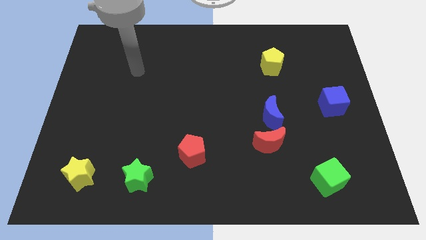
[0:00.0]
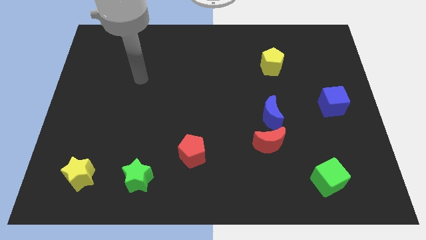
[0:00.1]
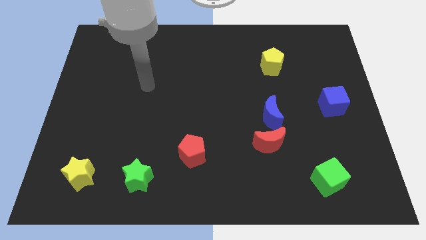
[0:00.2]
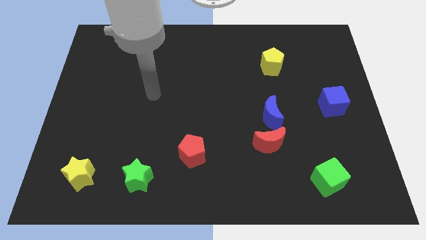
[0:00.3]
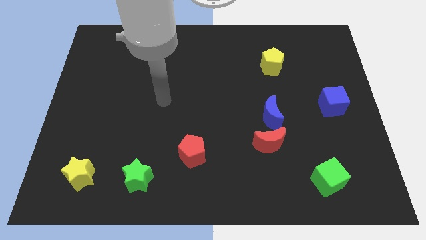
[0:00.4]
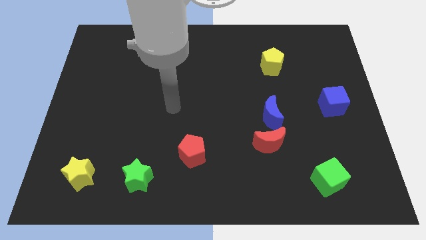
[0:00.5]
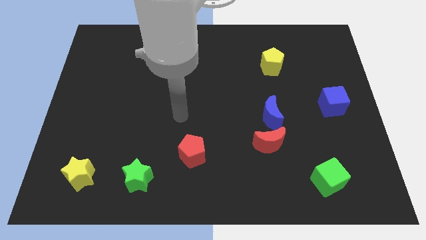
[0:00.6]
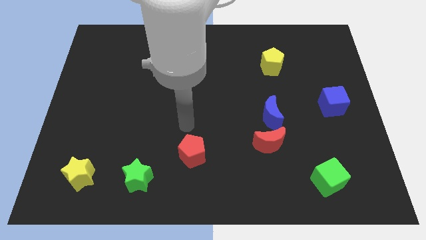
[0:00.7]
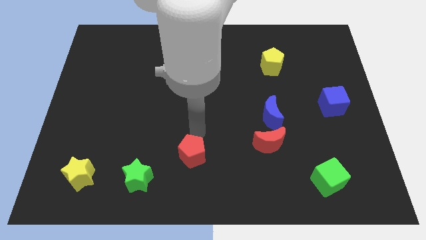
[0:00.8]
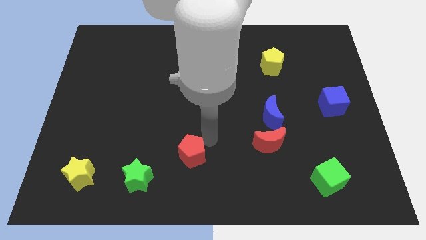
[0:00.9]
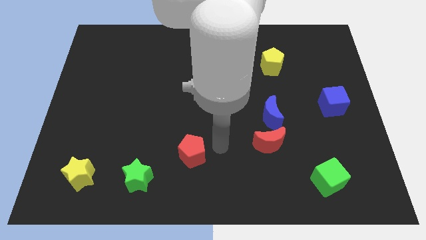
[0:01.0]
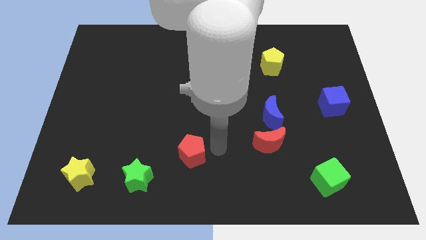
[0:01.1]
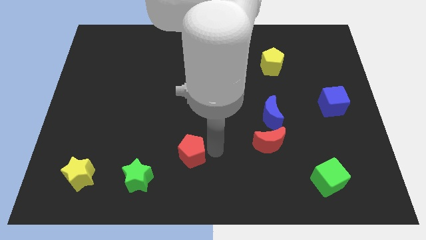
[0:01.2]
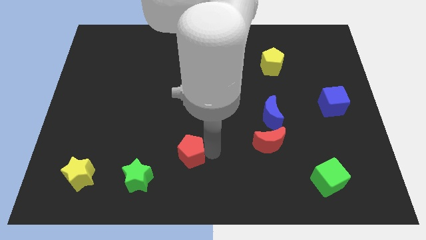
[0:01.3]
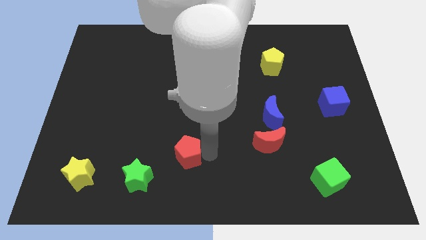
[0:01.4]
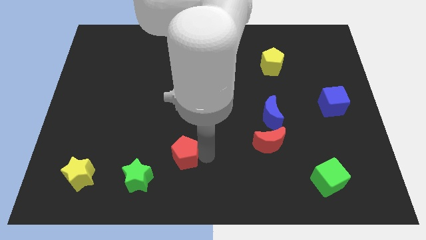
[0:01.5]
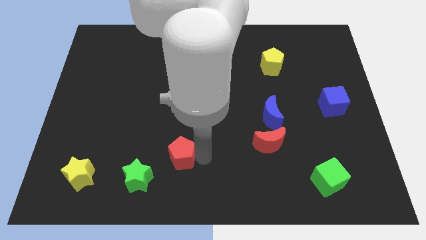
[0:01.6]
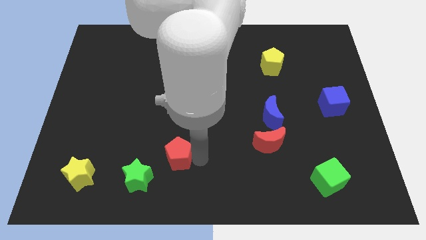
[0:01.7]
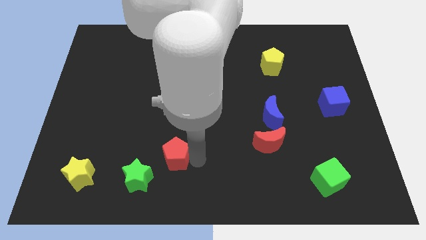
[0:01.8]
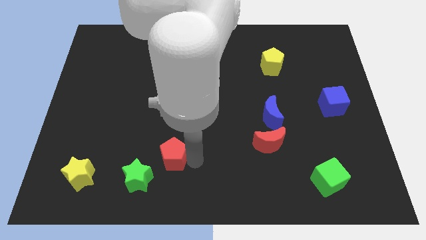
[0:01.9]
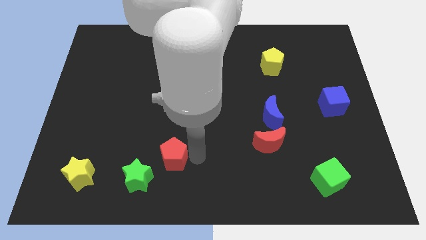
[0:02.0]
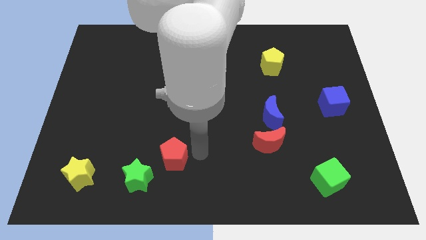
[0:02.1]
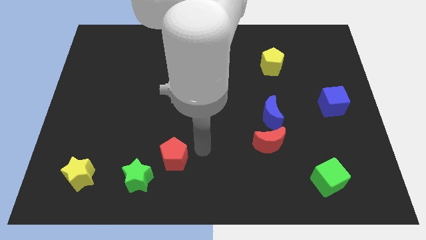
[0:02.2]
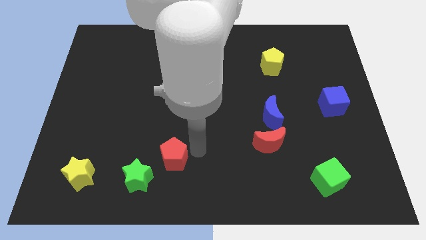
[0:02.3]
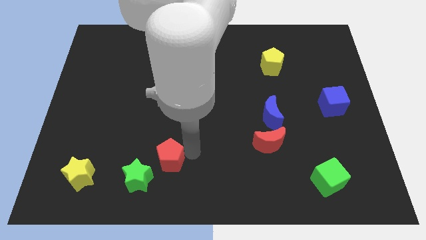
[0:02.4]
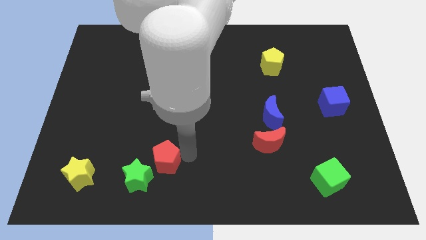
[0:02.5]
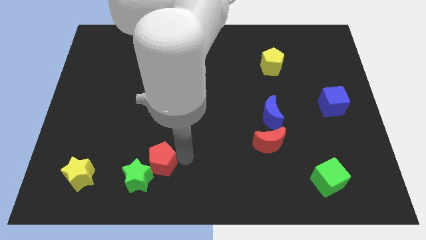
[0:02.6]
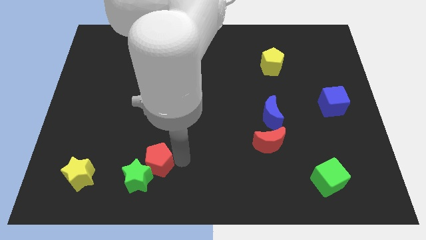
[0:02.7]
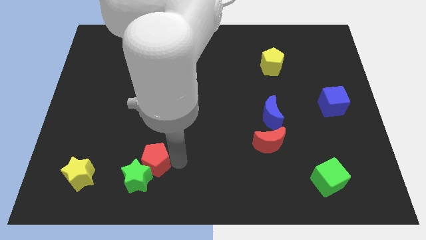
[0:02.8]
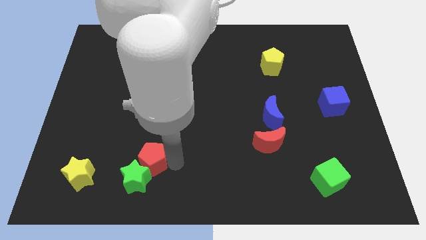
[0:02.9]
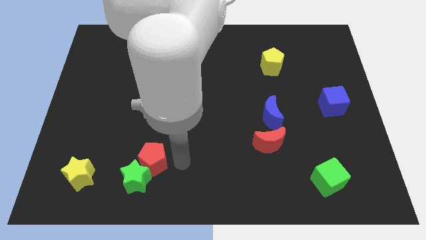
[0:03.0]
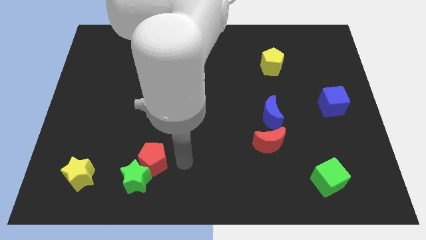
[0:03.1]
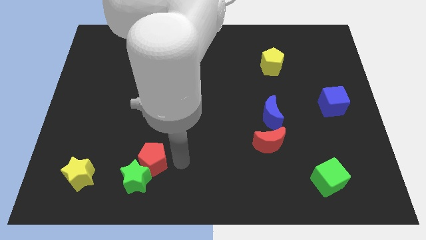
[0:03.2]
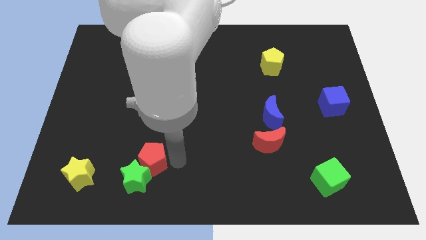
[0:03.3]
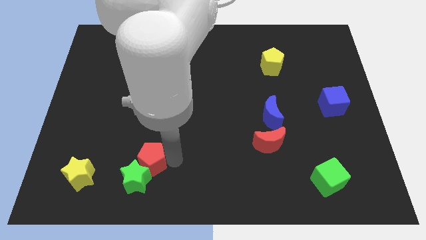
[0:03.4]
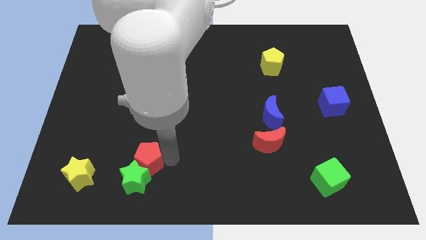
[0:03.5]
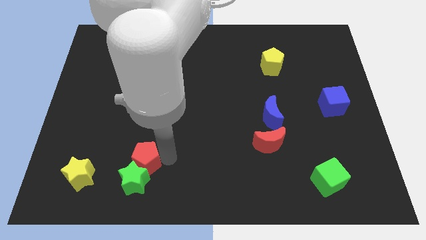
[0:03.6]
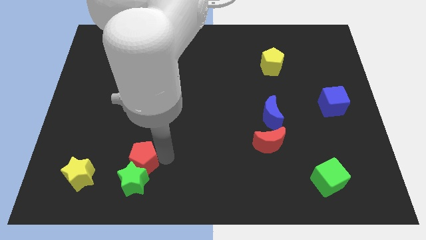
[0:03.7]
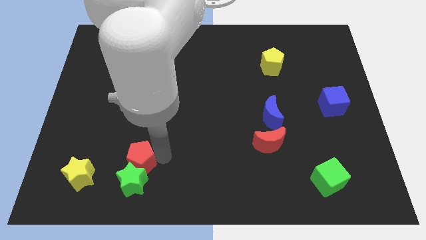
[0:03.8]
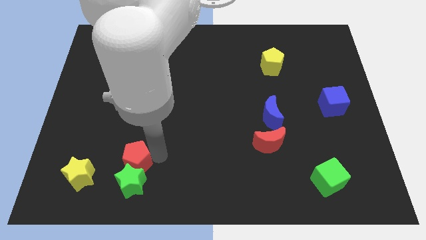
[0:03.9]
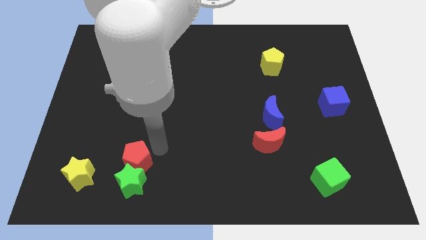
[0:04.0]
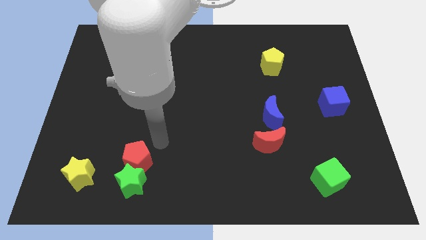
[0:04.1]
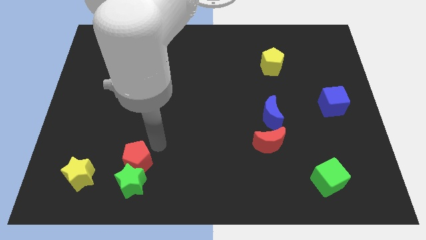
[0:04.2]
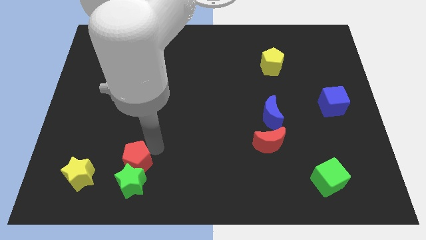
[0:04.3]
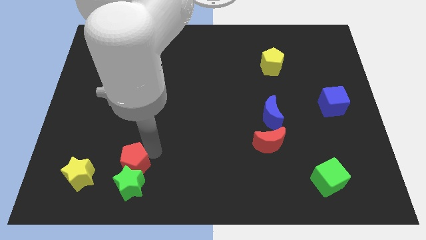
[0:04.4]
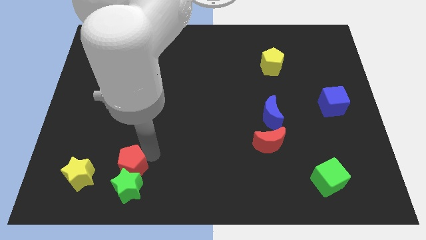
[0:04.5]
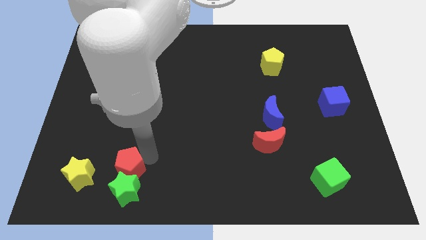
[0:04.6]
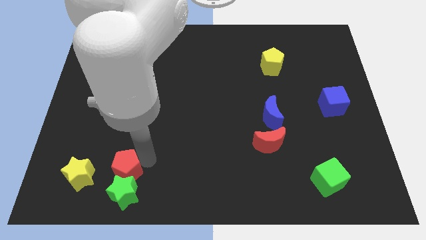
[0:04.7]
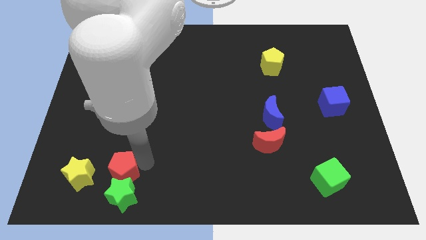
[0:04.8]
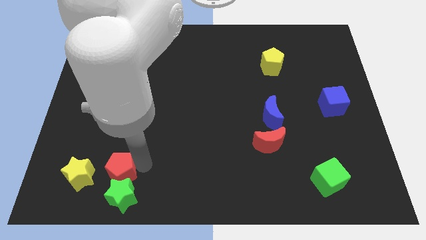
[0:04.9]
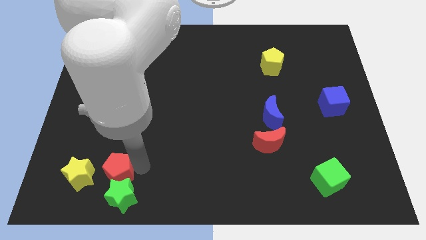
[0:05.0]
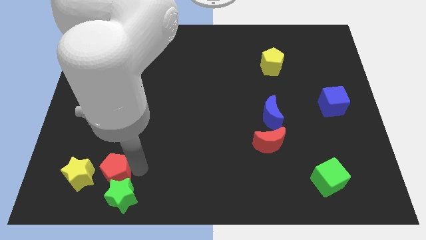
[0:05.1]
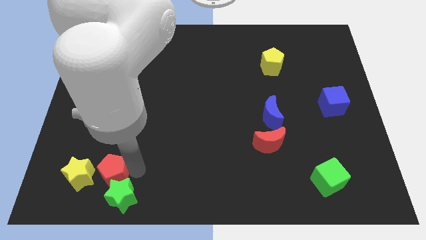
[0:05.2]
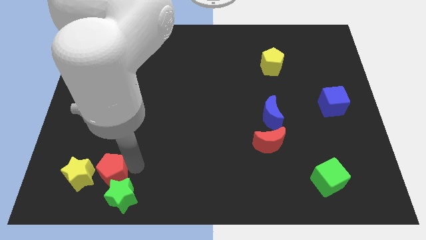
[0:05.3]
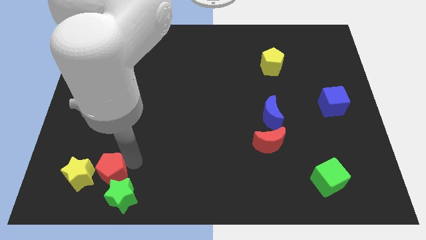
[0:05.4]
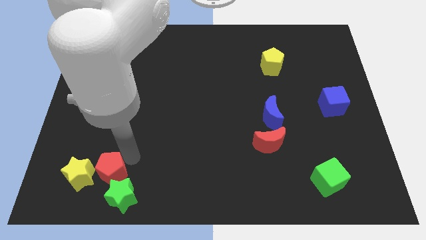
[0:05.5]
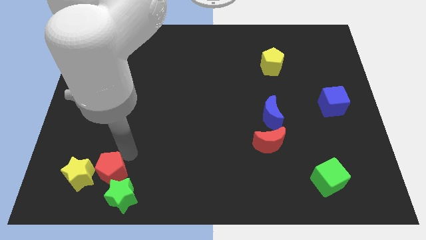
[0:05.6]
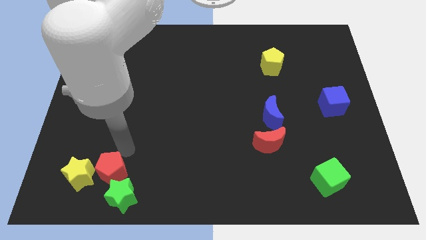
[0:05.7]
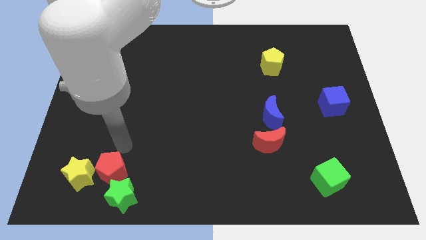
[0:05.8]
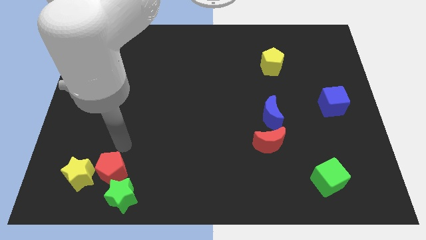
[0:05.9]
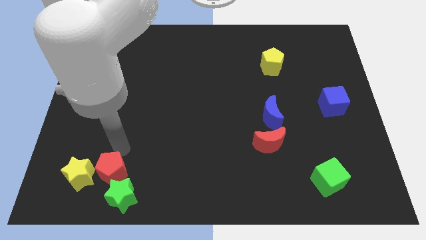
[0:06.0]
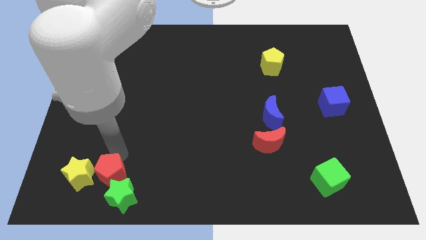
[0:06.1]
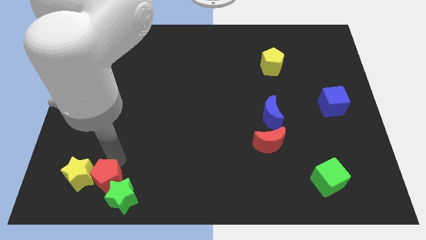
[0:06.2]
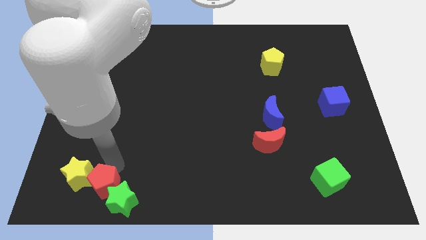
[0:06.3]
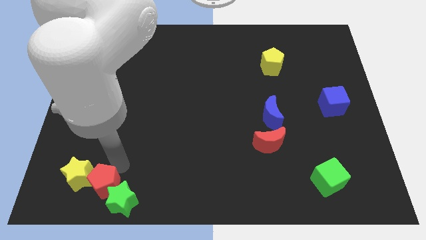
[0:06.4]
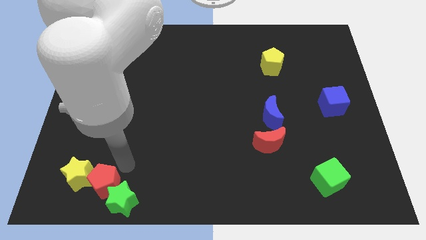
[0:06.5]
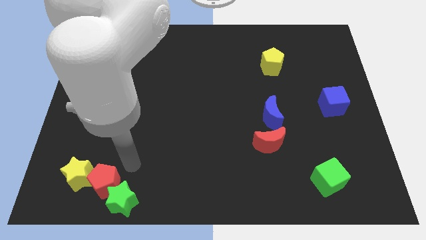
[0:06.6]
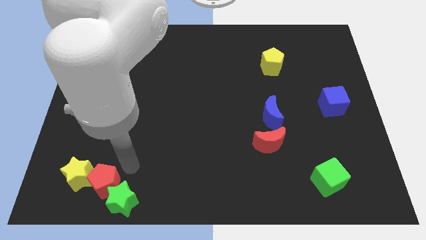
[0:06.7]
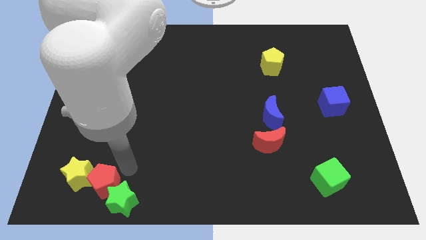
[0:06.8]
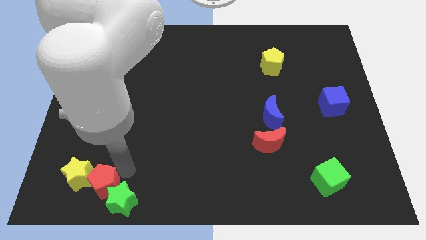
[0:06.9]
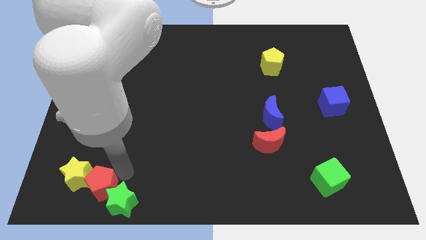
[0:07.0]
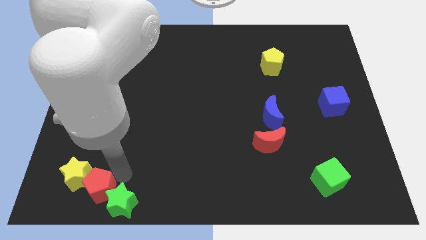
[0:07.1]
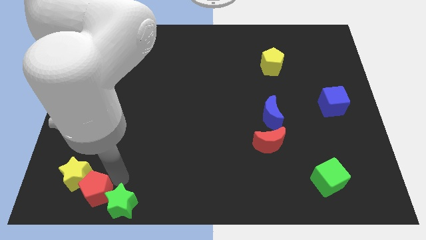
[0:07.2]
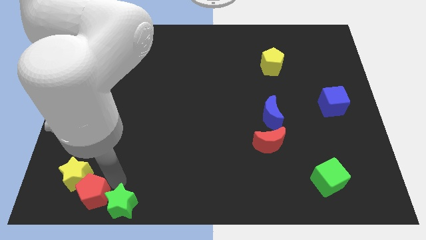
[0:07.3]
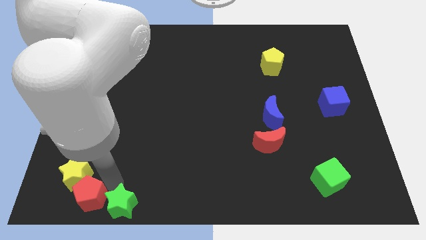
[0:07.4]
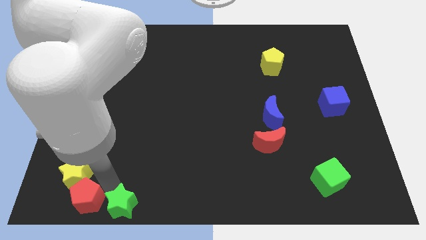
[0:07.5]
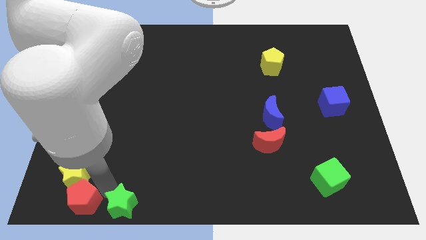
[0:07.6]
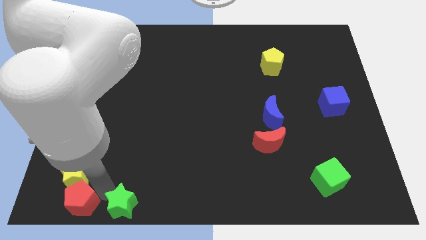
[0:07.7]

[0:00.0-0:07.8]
push the red pentagon to the bottom left corner

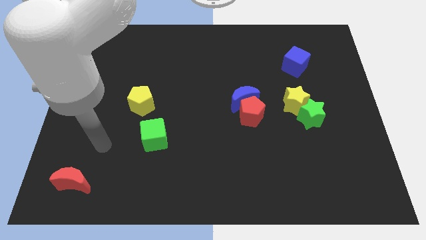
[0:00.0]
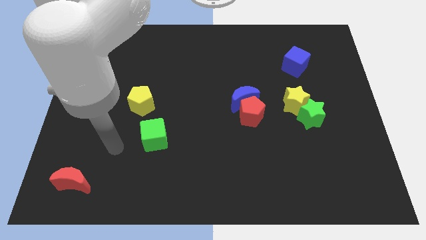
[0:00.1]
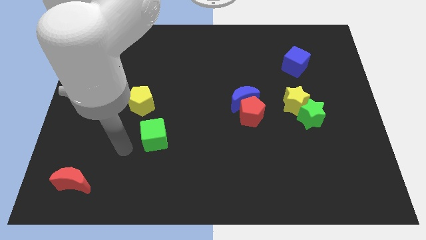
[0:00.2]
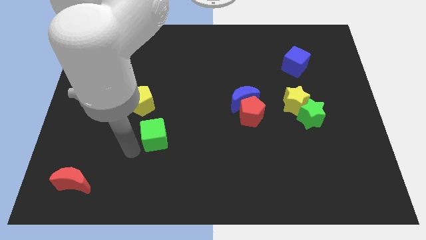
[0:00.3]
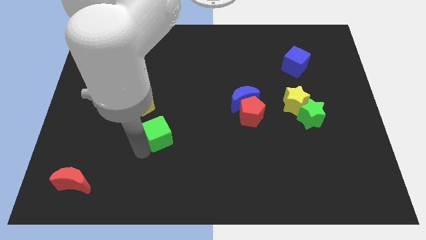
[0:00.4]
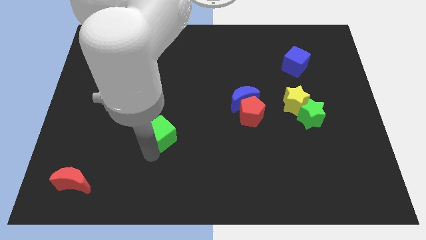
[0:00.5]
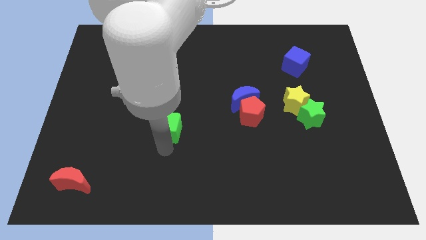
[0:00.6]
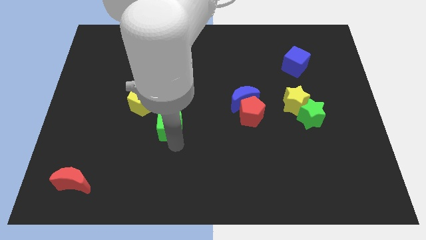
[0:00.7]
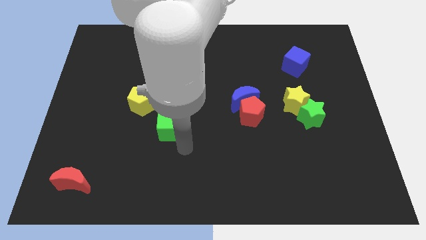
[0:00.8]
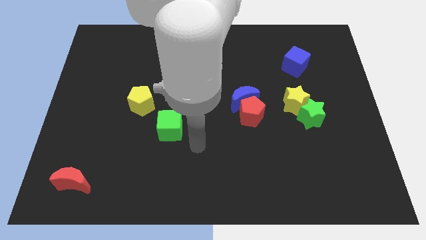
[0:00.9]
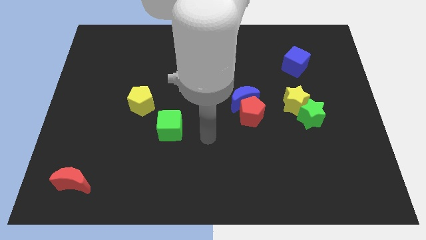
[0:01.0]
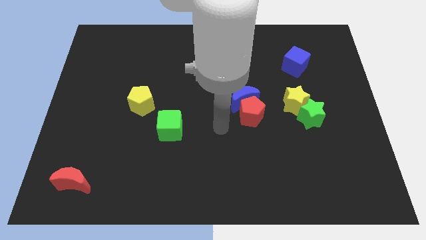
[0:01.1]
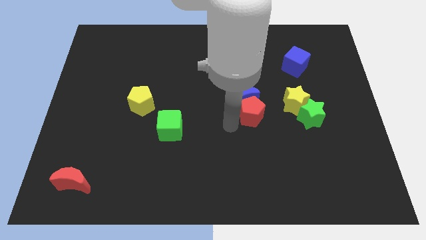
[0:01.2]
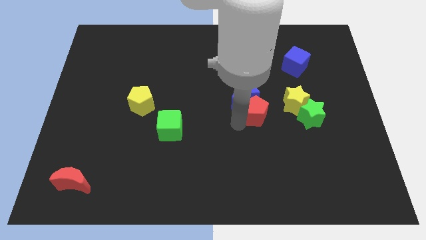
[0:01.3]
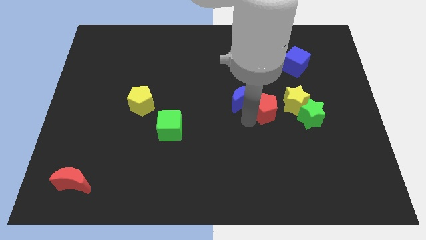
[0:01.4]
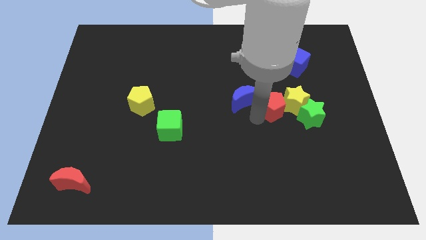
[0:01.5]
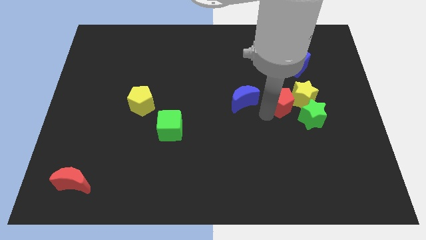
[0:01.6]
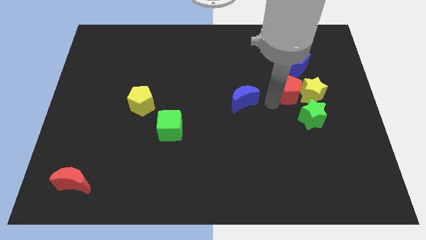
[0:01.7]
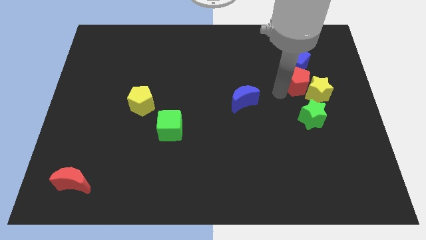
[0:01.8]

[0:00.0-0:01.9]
put the yellow star to the center right
